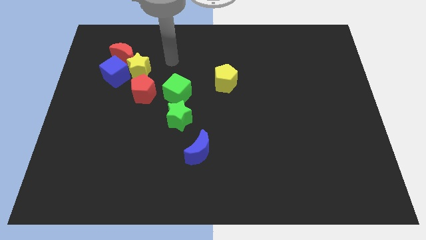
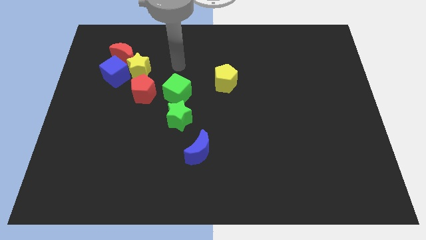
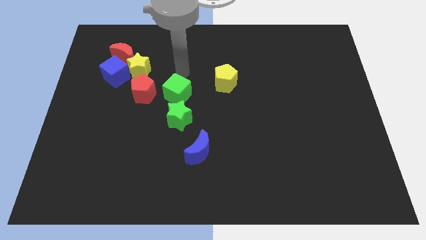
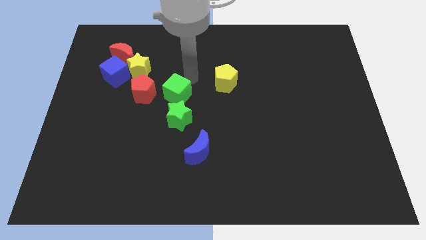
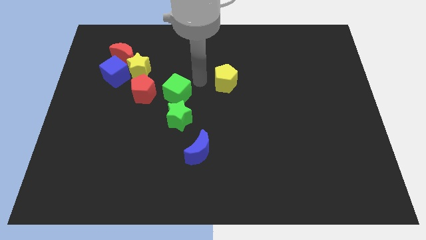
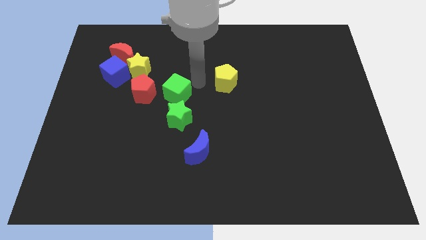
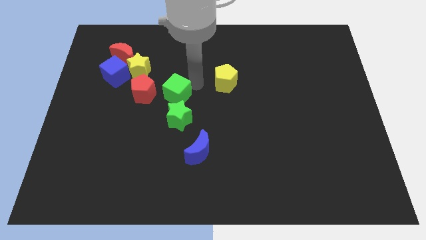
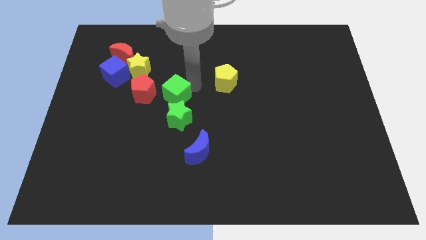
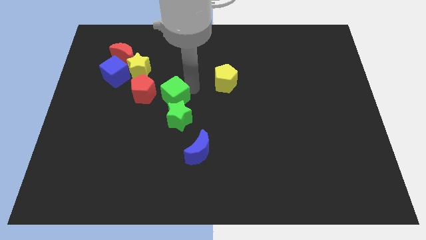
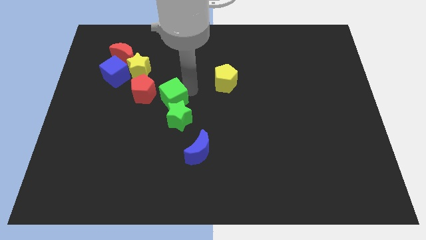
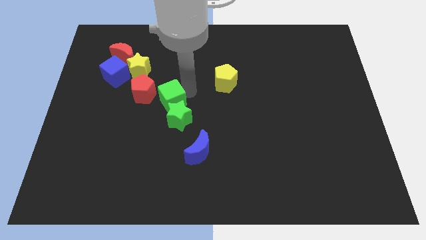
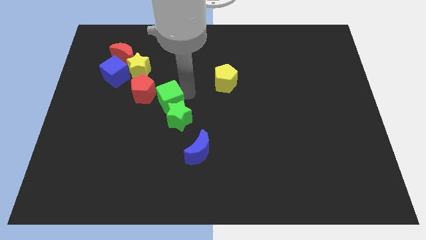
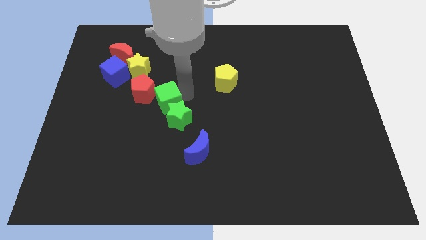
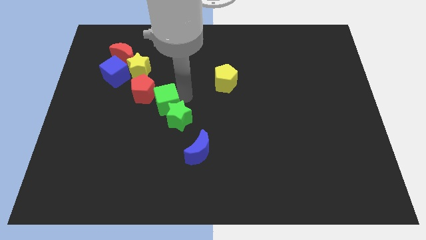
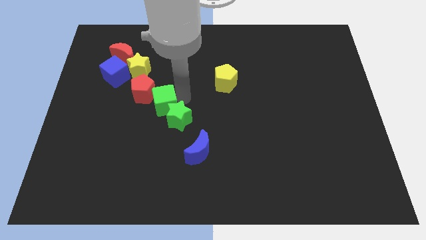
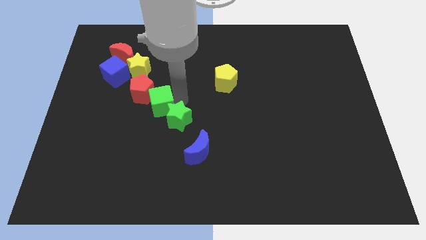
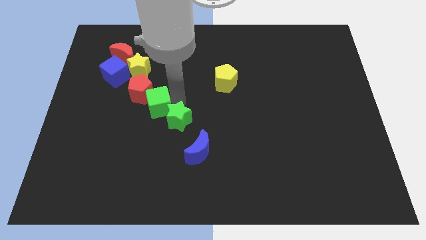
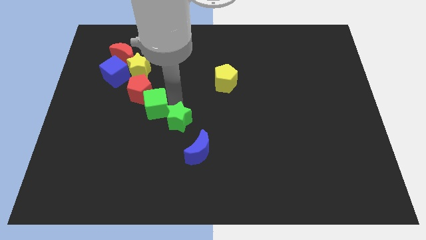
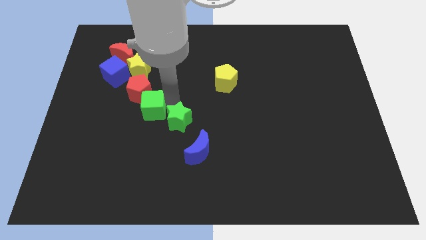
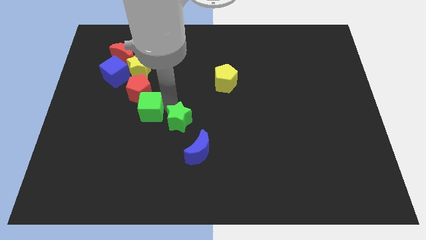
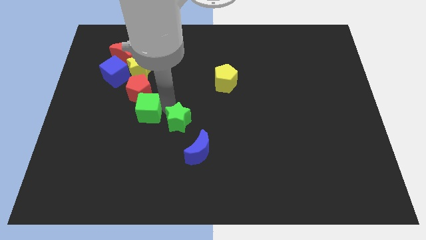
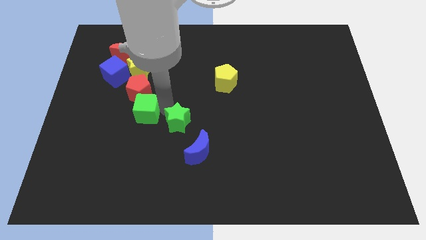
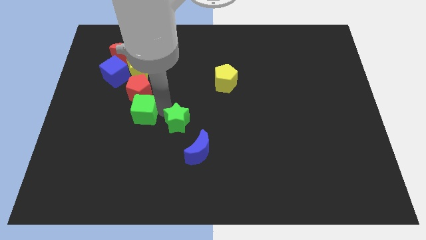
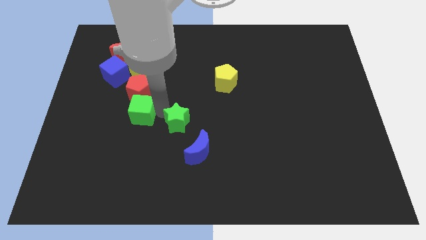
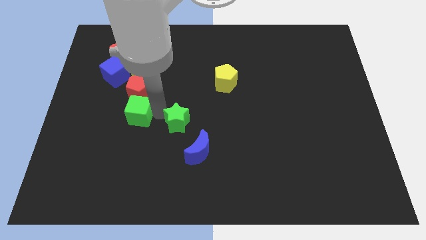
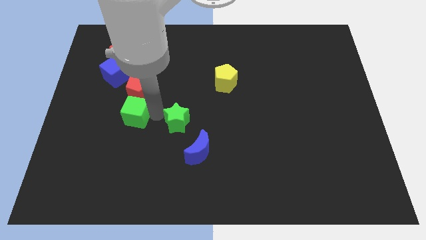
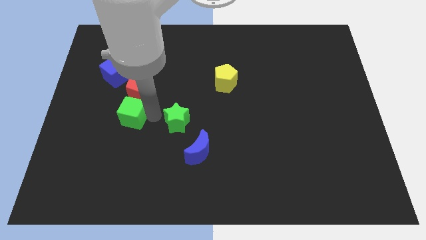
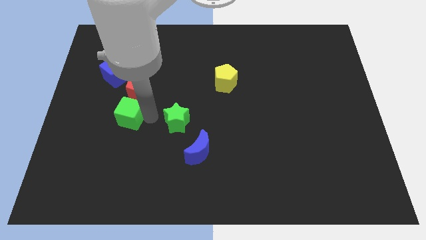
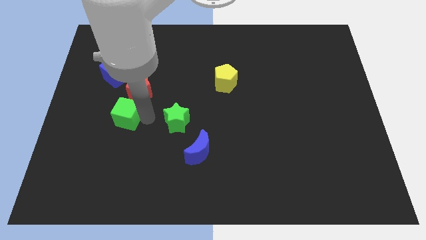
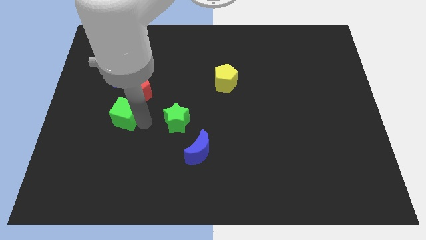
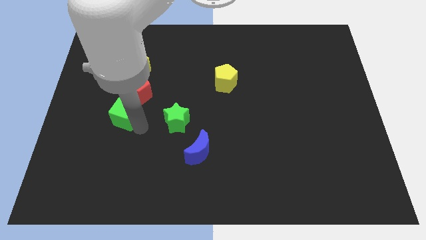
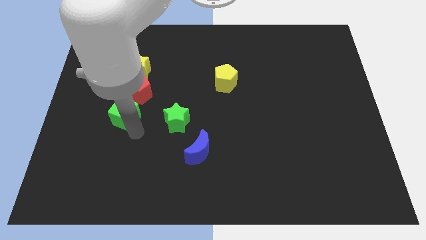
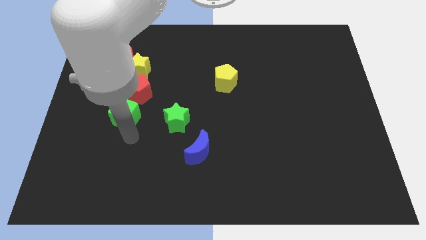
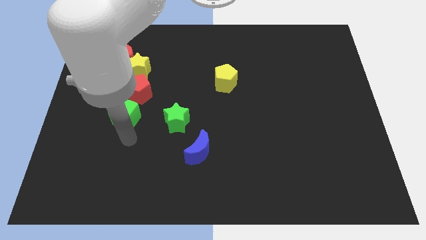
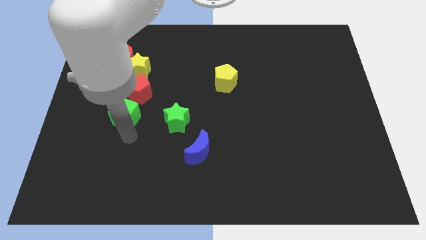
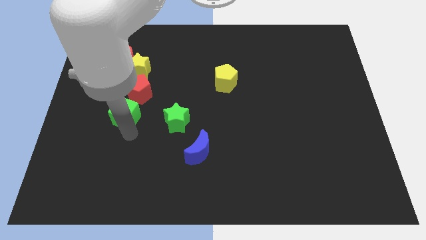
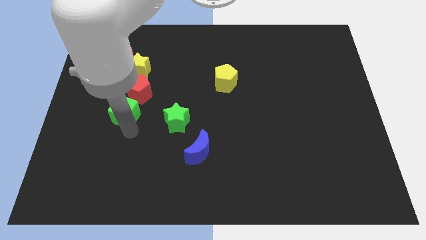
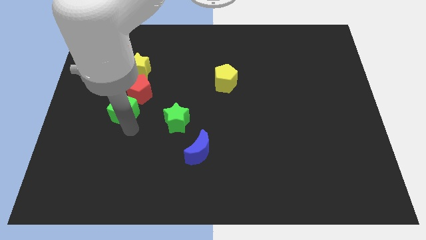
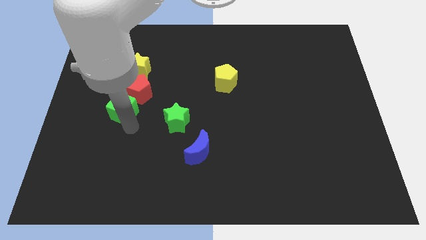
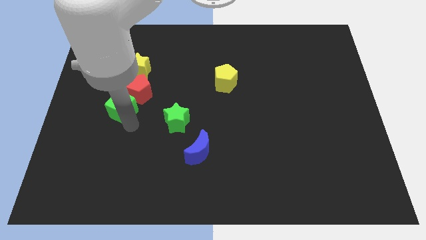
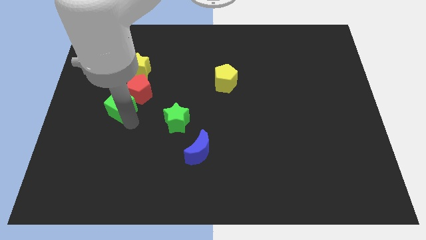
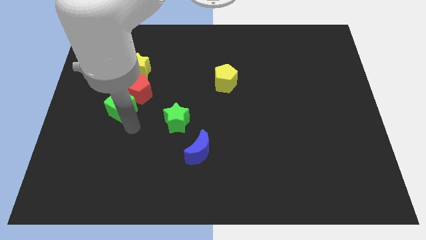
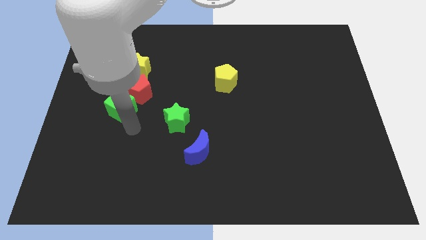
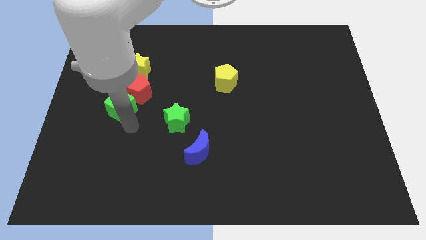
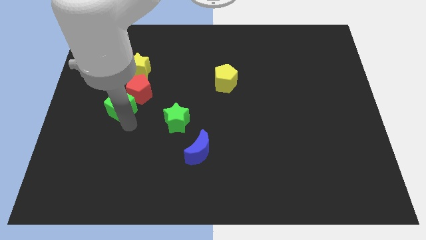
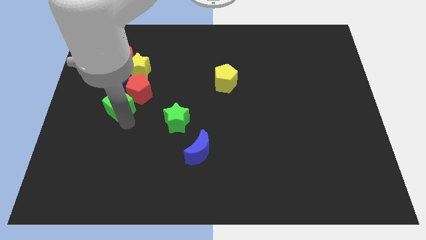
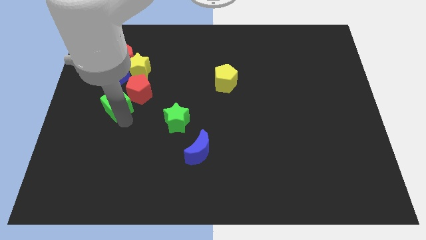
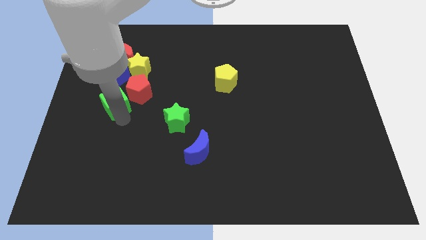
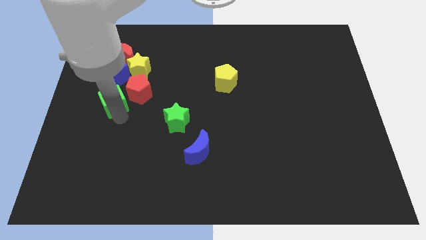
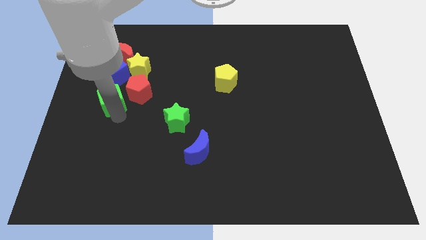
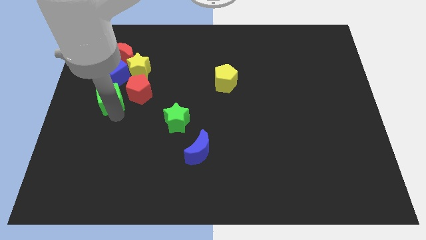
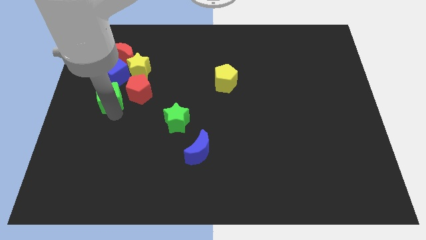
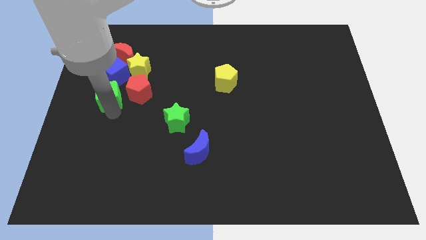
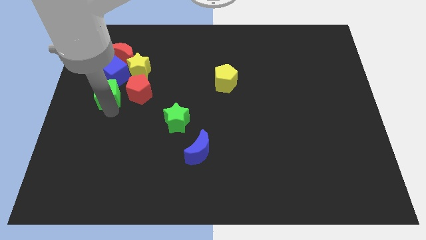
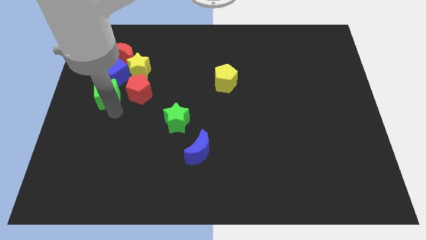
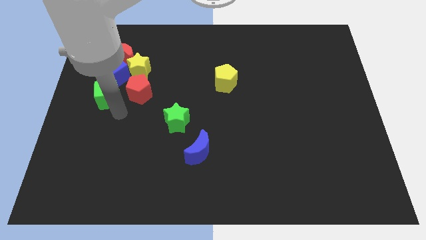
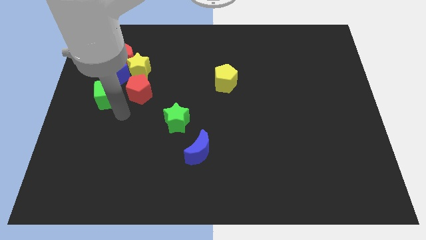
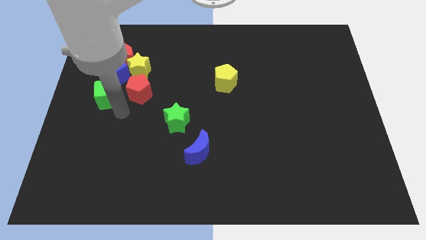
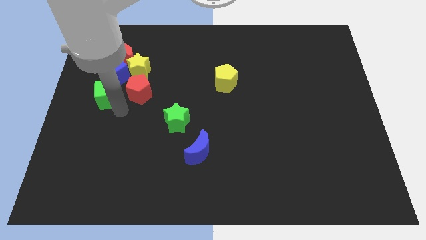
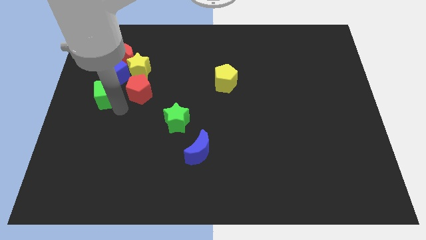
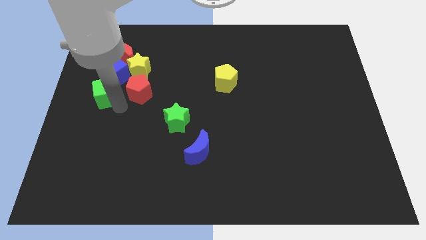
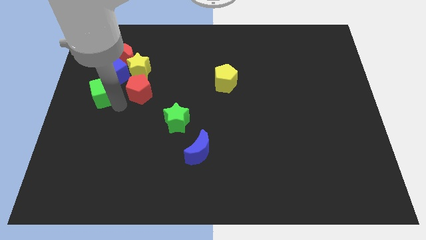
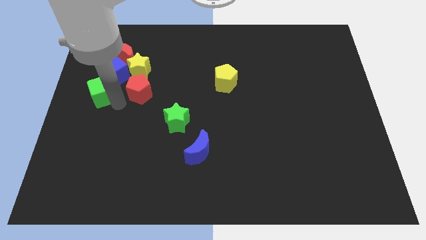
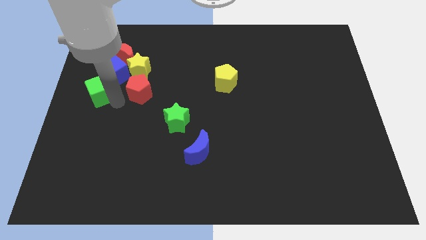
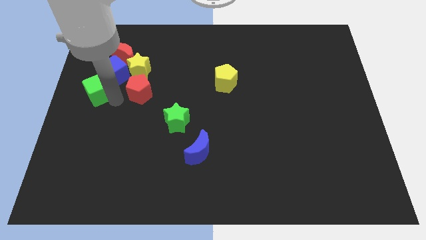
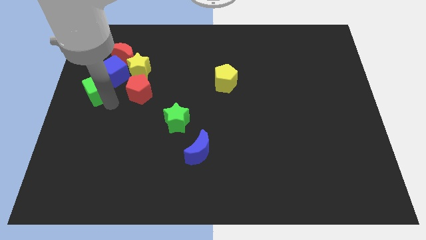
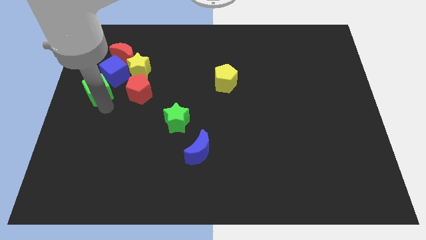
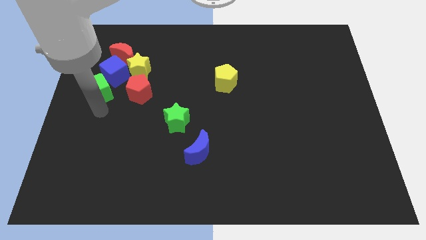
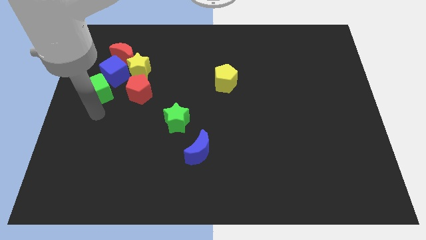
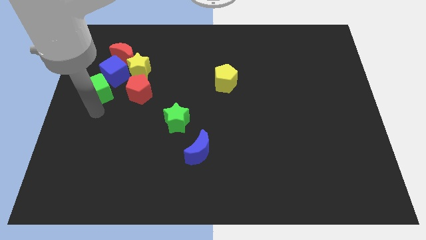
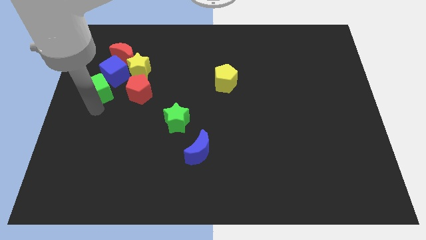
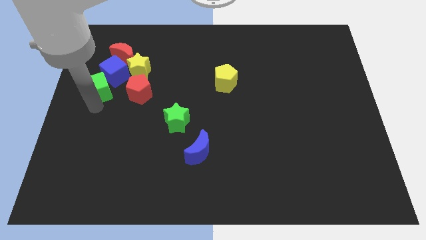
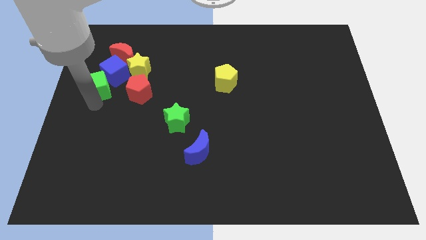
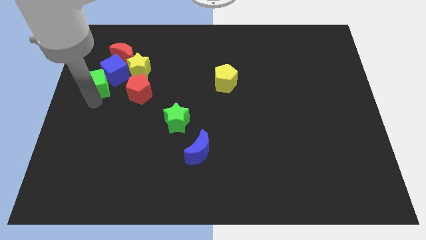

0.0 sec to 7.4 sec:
push the green cube diagonally down and to the left of the red moon
